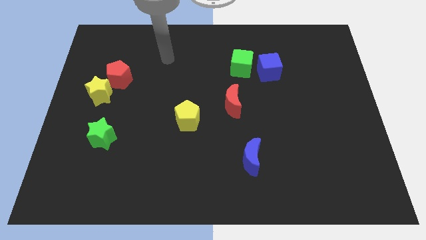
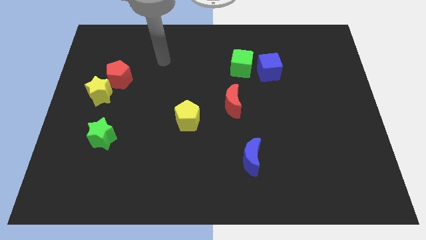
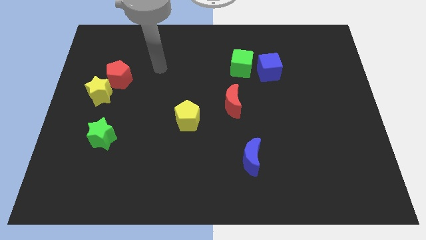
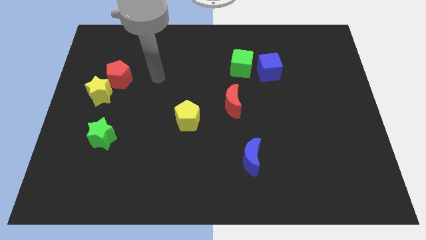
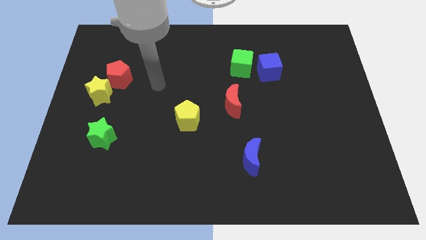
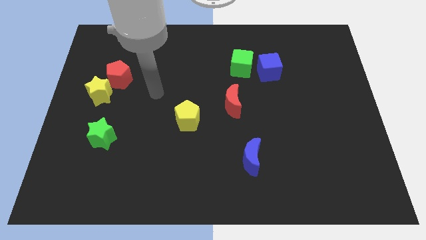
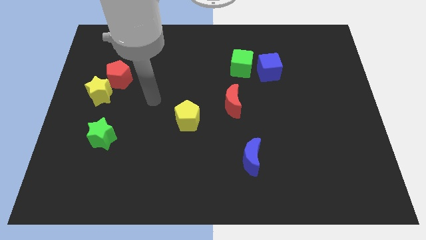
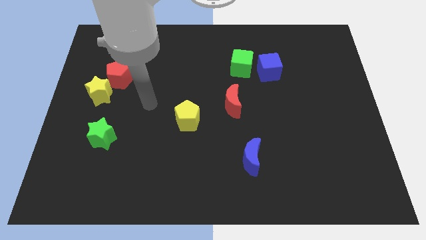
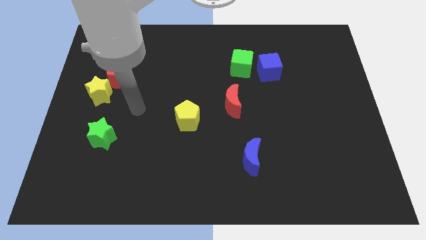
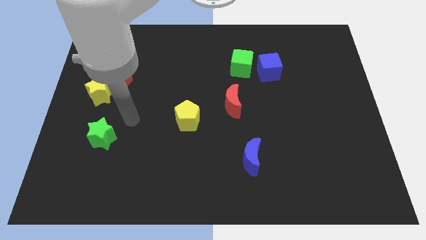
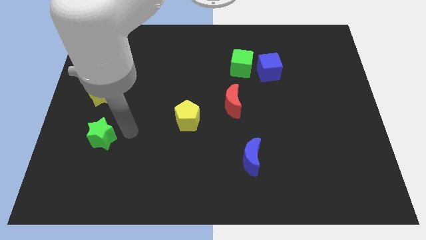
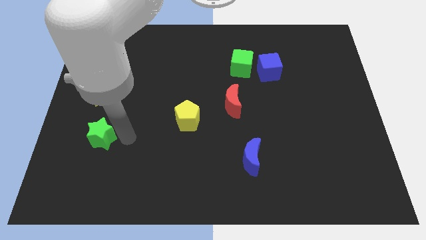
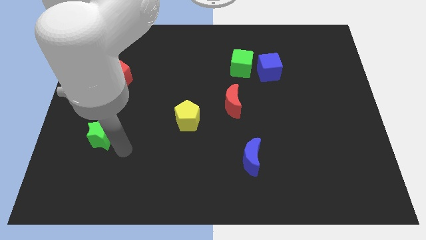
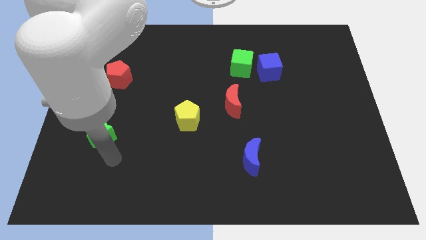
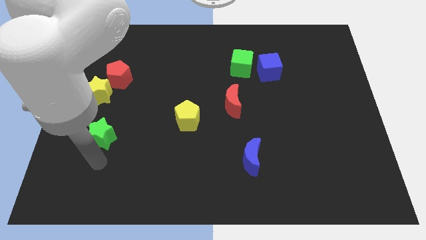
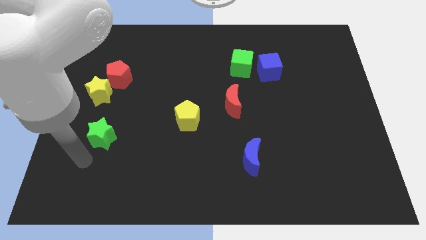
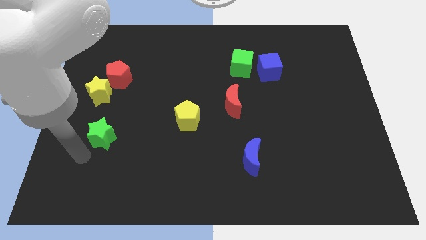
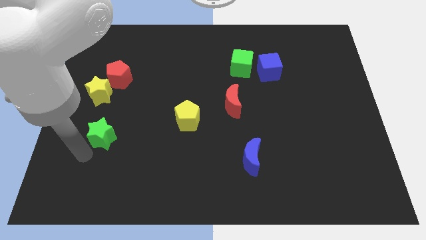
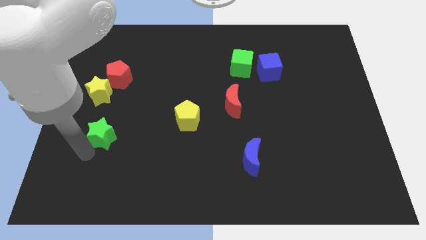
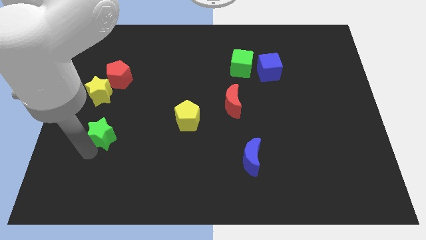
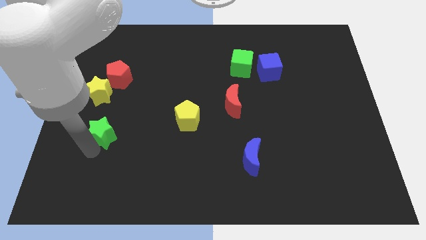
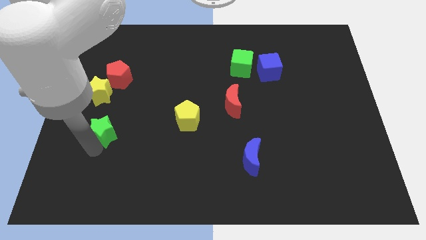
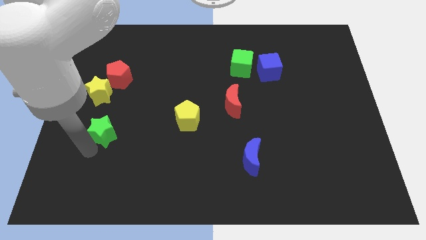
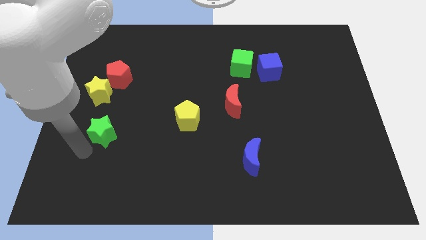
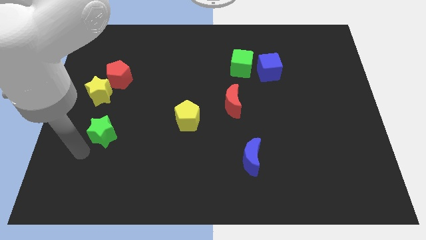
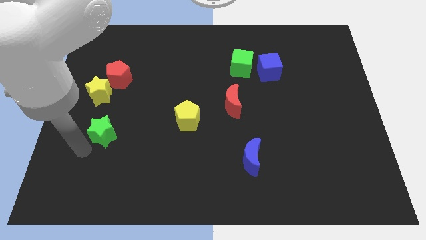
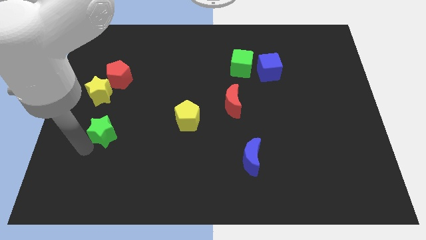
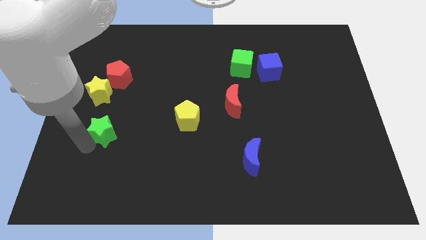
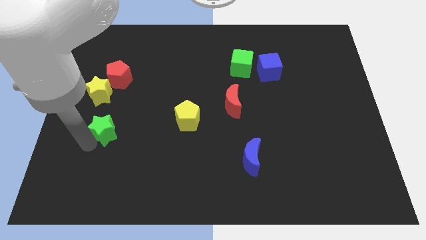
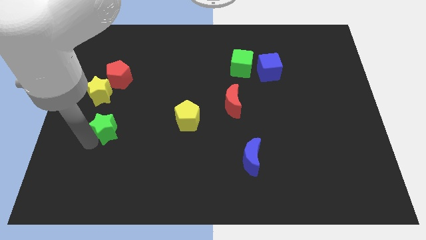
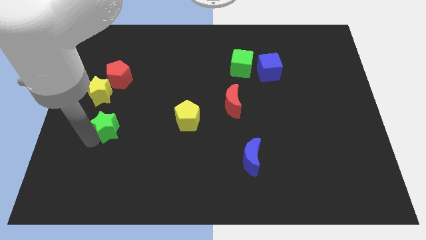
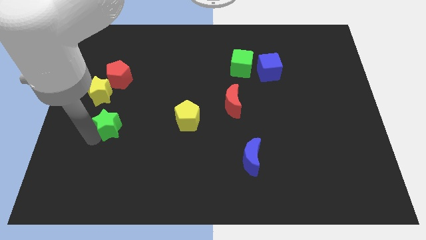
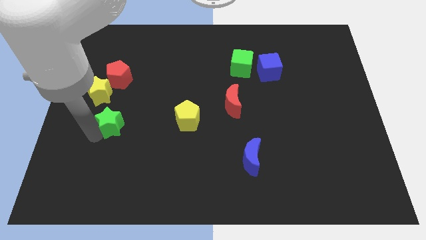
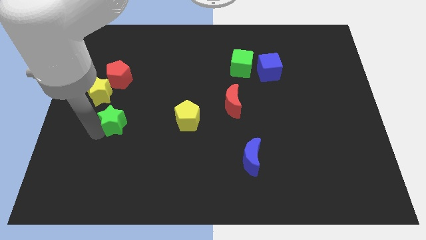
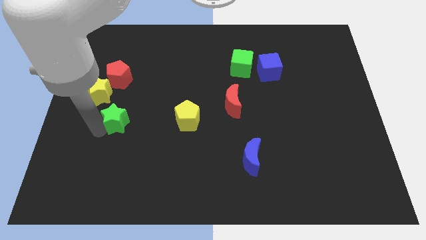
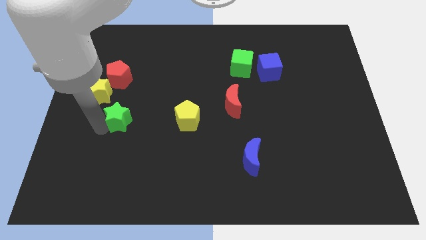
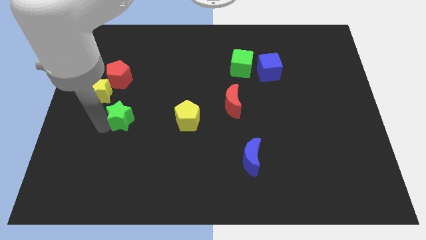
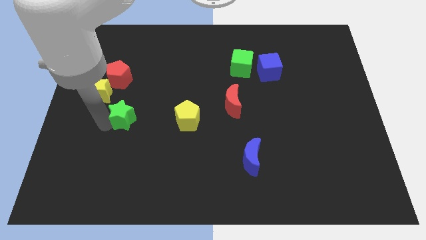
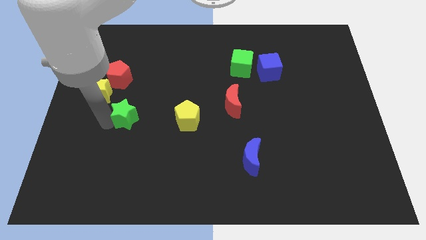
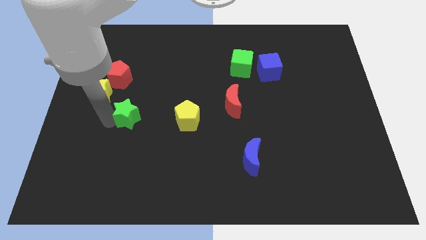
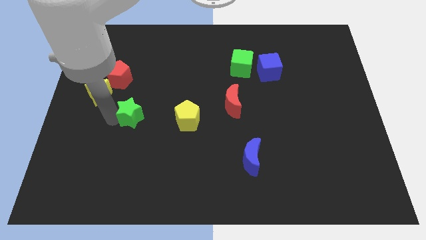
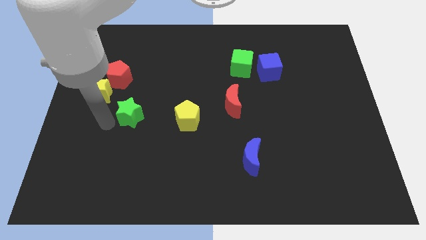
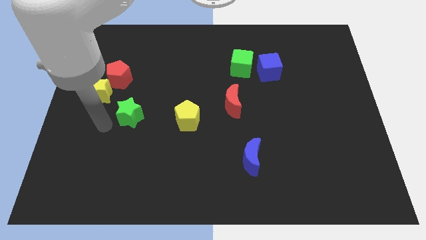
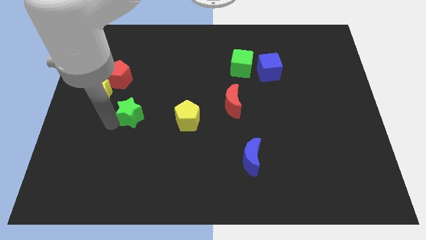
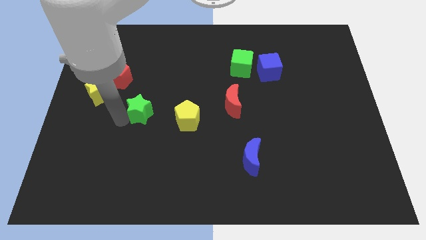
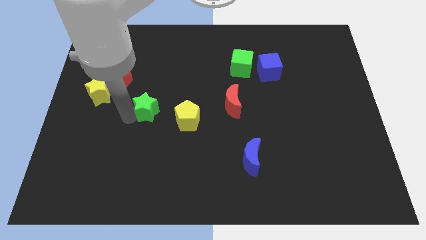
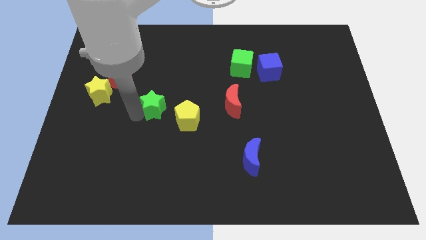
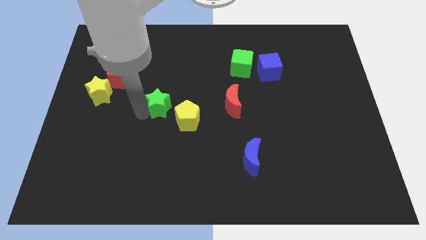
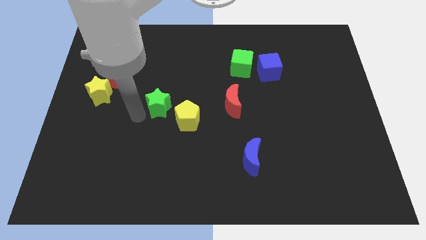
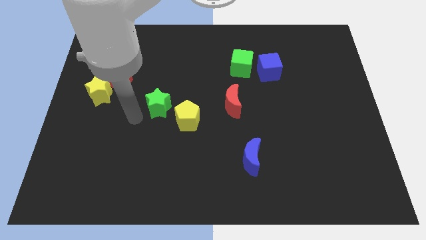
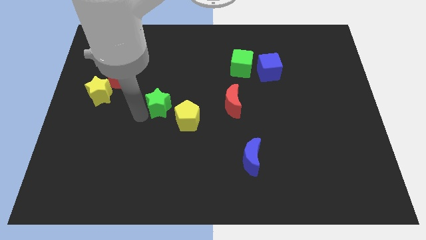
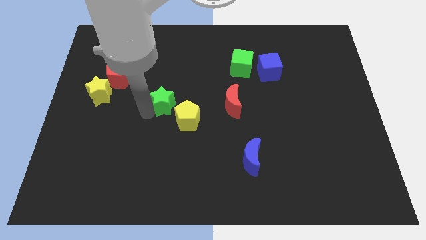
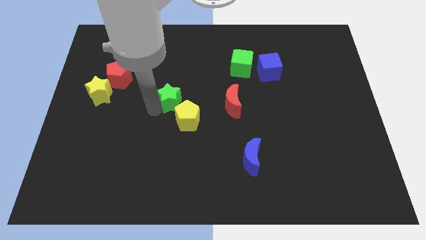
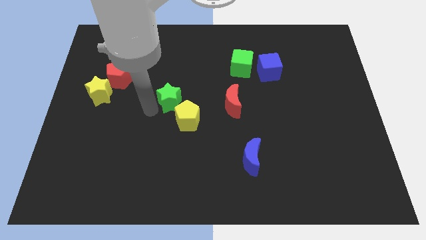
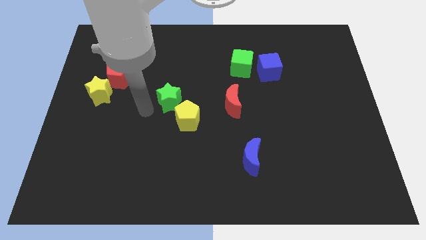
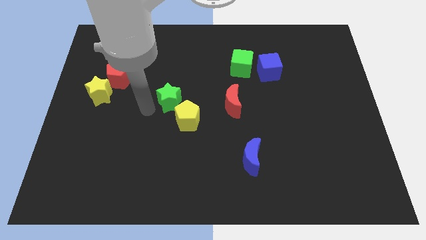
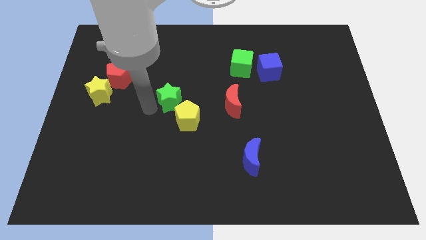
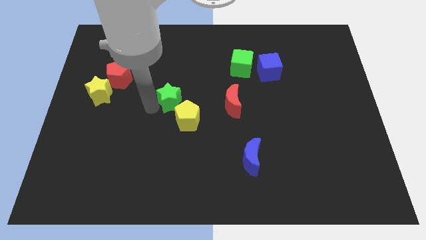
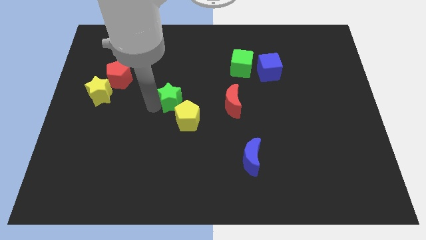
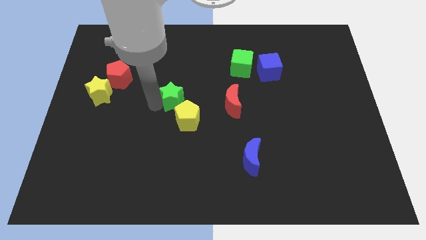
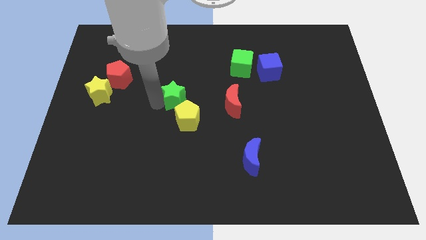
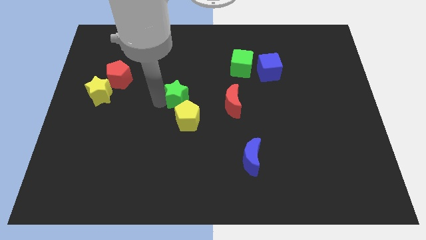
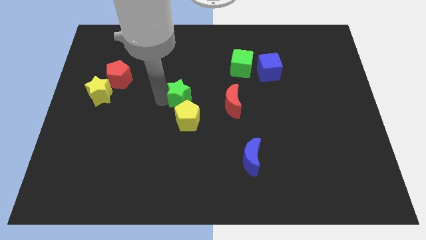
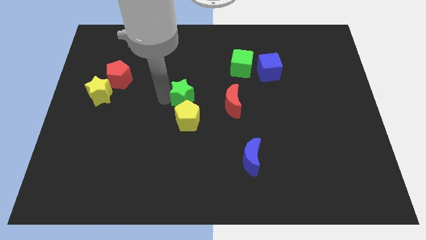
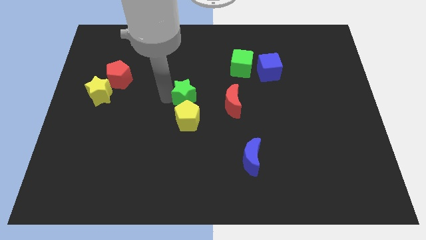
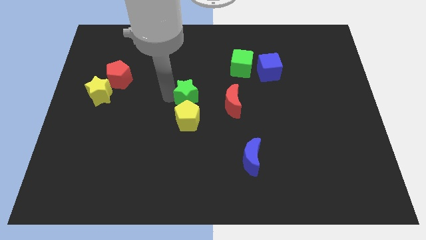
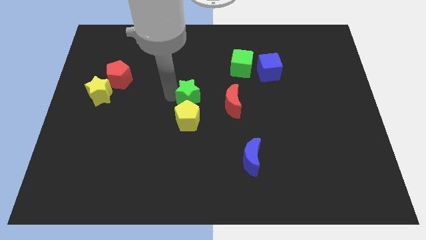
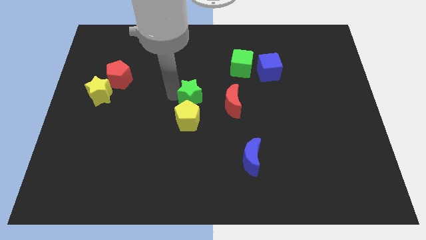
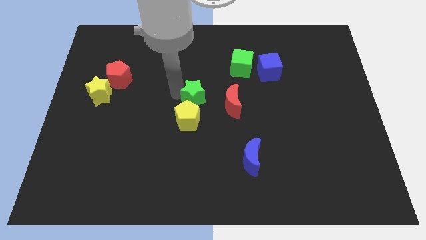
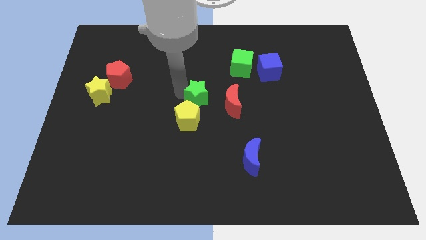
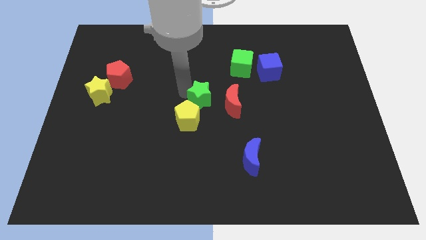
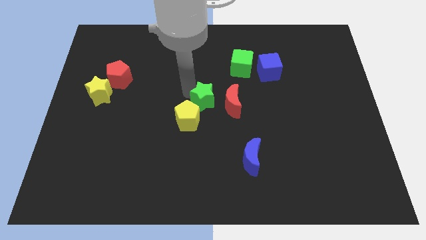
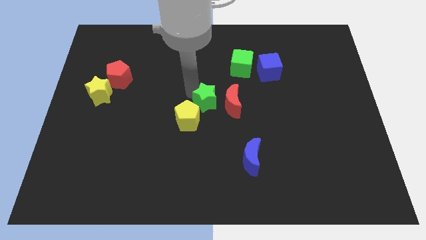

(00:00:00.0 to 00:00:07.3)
move the green star to the red moon
